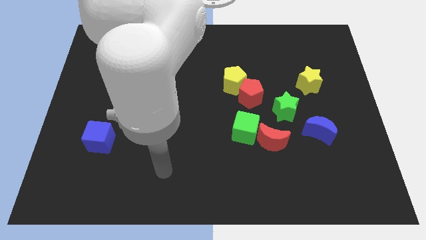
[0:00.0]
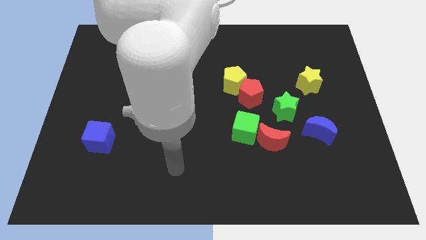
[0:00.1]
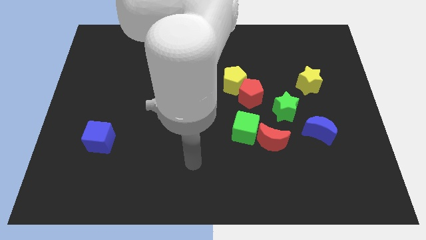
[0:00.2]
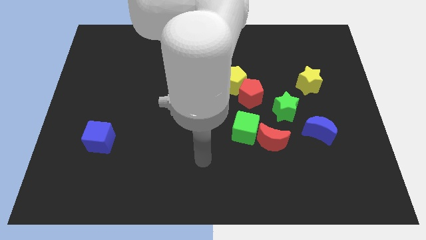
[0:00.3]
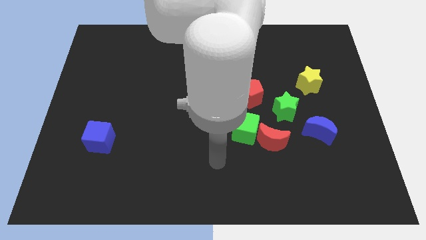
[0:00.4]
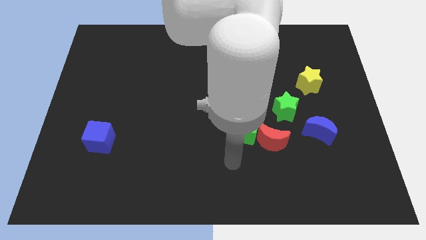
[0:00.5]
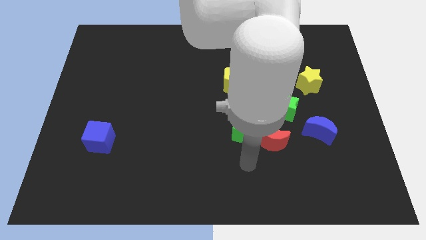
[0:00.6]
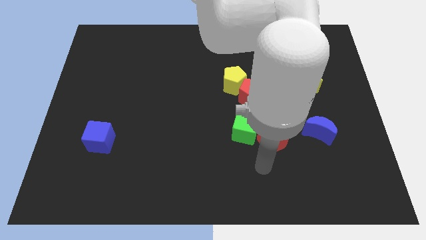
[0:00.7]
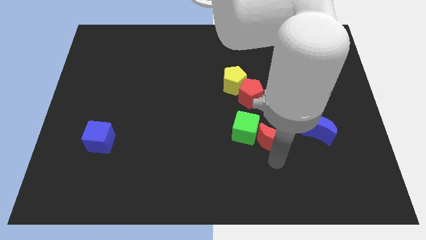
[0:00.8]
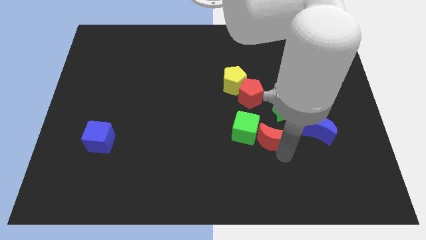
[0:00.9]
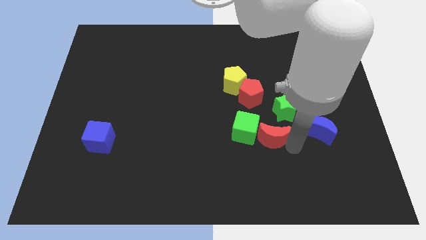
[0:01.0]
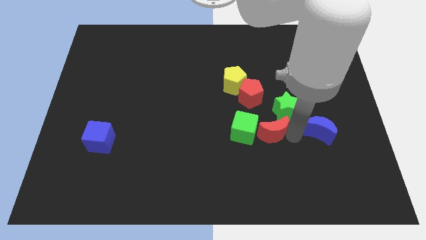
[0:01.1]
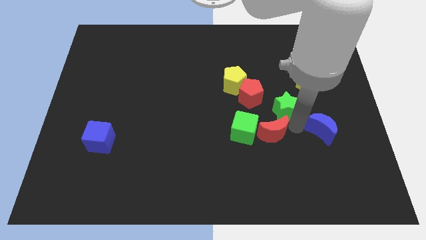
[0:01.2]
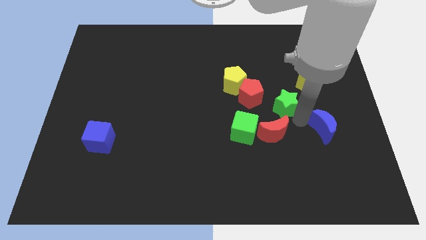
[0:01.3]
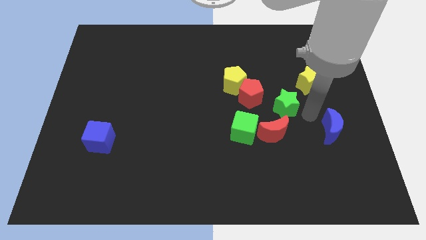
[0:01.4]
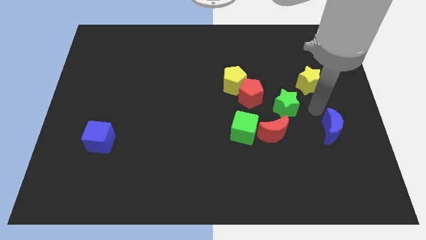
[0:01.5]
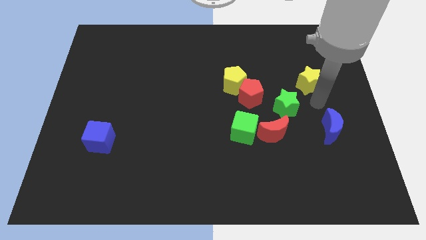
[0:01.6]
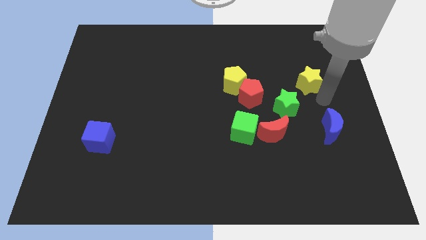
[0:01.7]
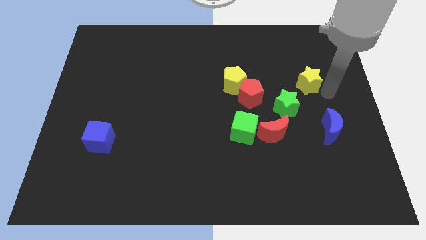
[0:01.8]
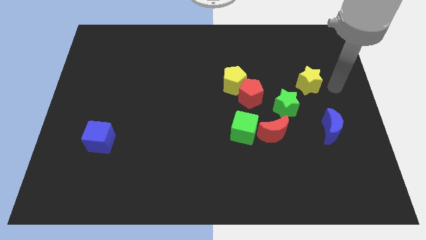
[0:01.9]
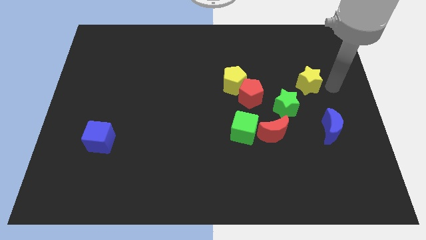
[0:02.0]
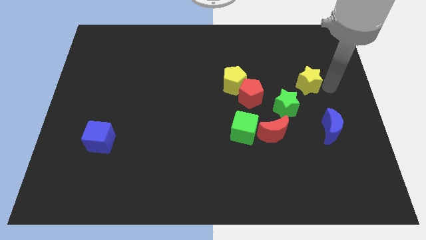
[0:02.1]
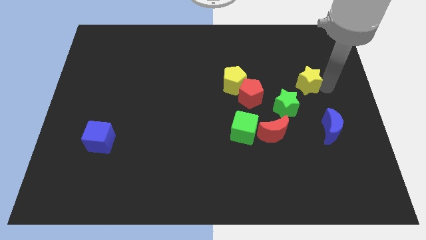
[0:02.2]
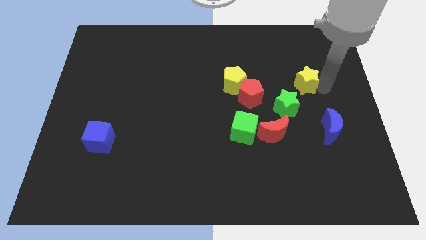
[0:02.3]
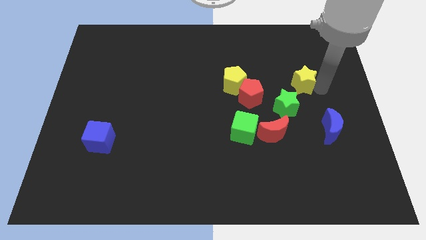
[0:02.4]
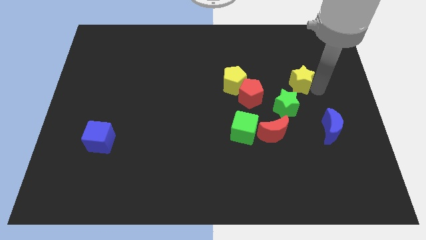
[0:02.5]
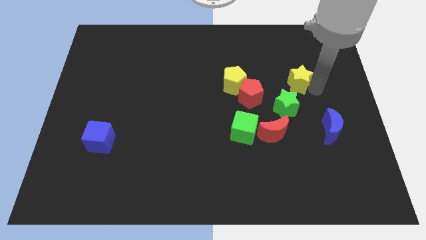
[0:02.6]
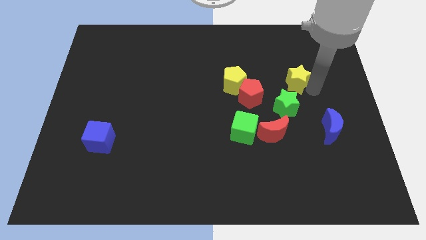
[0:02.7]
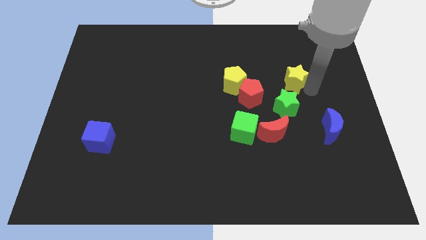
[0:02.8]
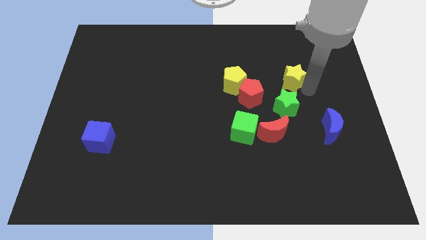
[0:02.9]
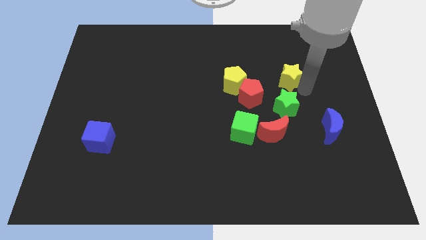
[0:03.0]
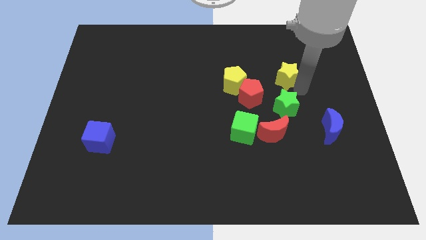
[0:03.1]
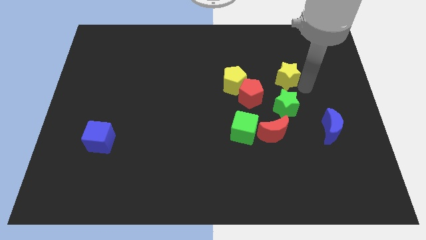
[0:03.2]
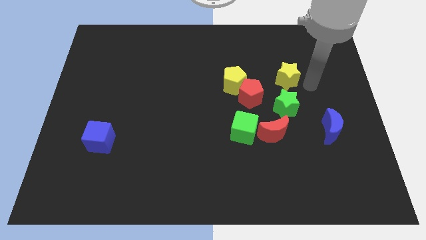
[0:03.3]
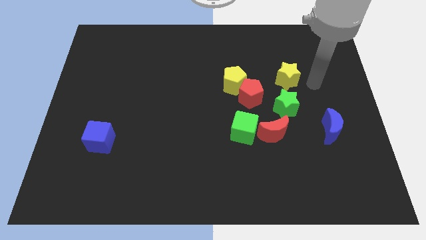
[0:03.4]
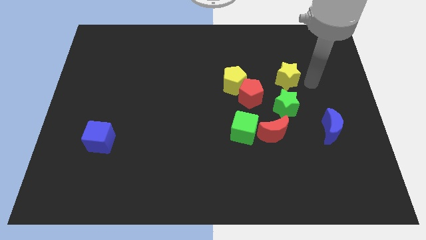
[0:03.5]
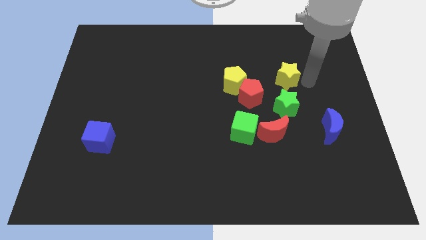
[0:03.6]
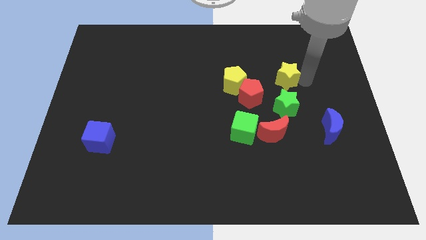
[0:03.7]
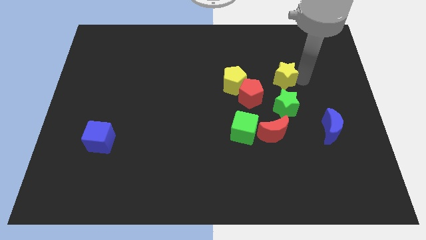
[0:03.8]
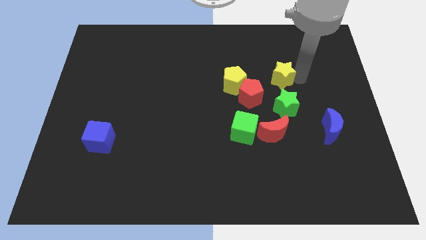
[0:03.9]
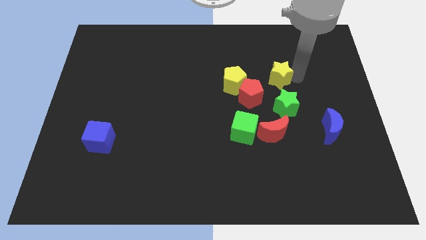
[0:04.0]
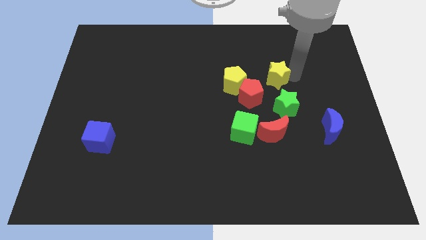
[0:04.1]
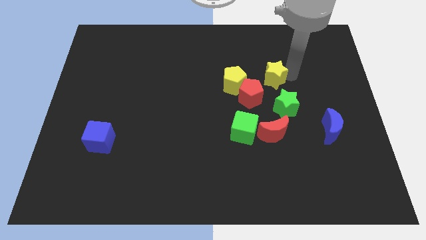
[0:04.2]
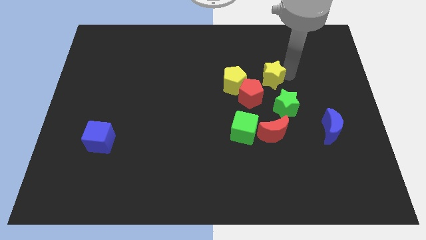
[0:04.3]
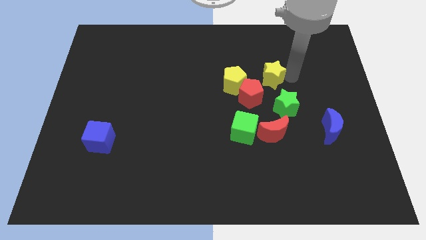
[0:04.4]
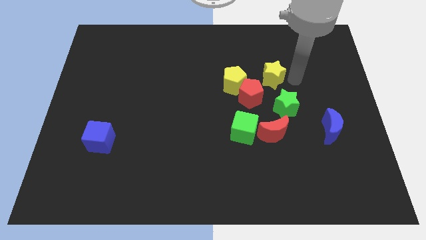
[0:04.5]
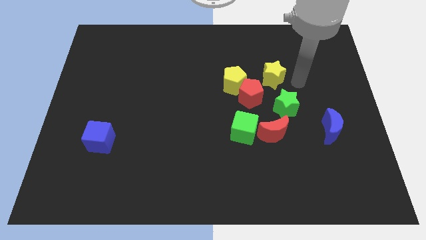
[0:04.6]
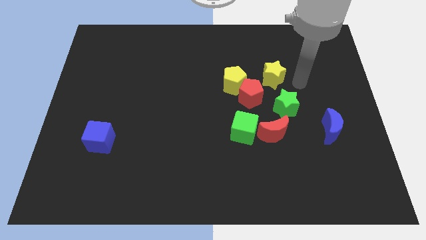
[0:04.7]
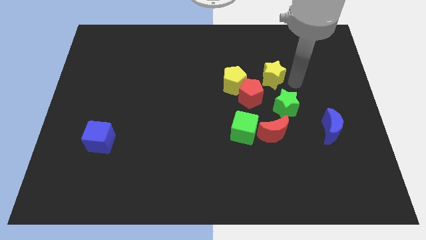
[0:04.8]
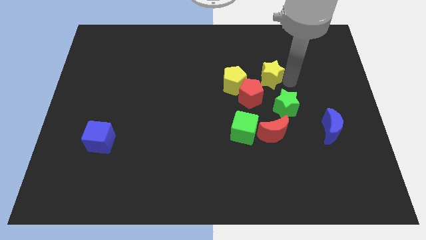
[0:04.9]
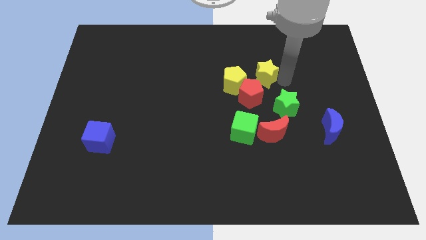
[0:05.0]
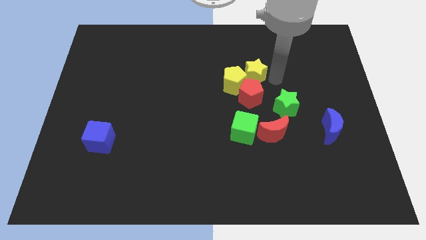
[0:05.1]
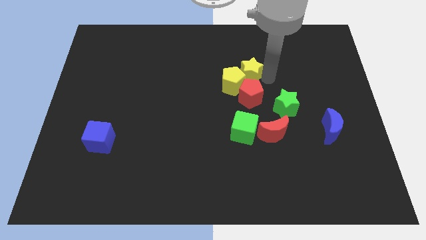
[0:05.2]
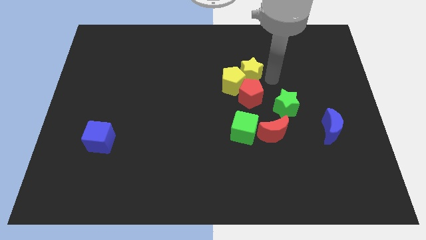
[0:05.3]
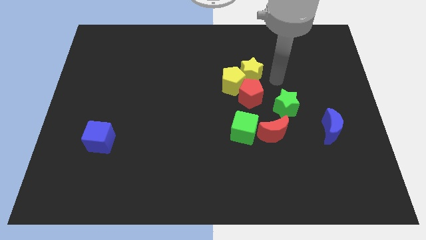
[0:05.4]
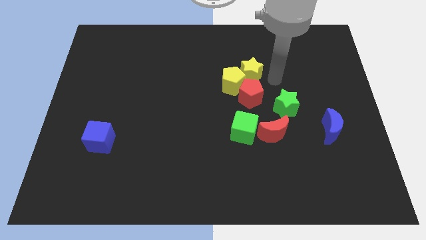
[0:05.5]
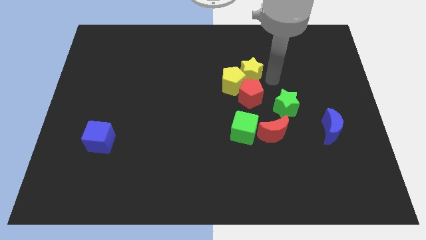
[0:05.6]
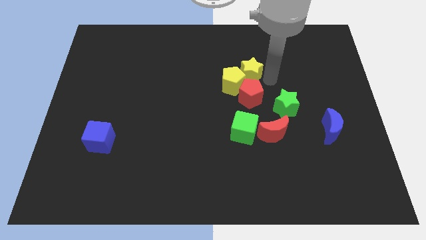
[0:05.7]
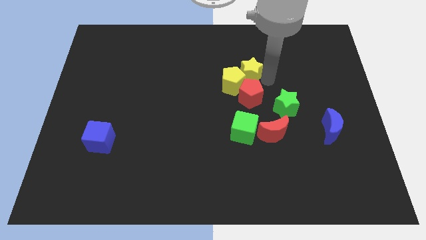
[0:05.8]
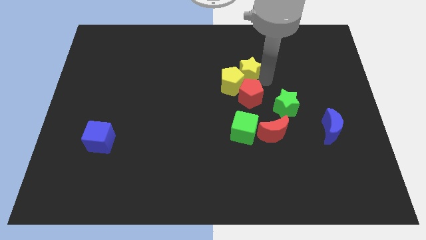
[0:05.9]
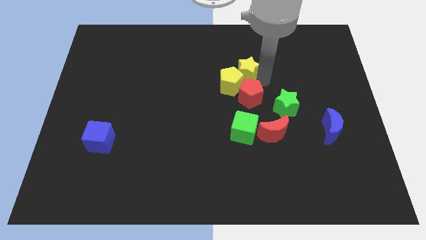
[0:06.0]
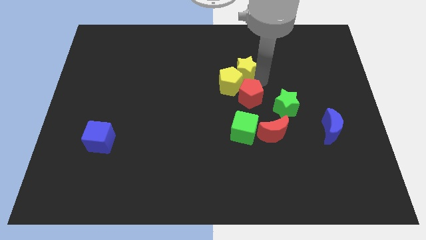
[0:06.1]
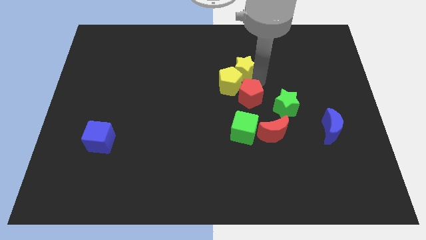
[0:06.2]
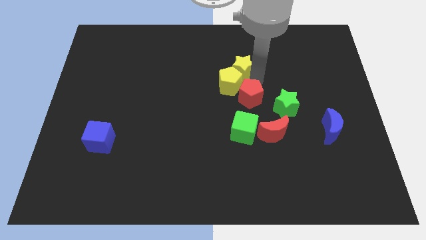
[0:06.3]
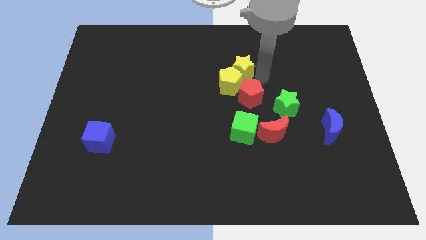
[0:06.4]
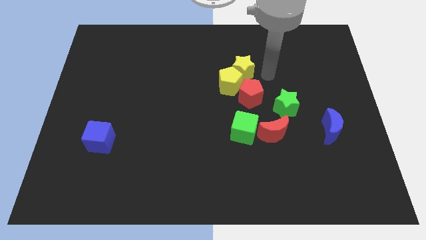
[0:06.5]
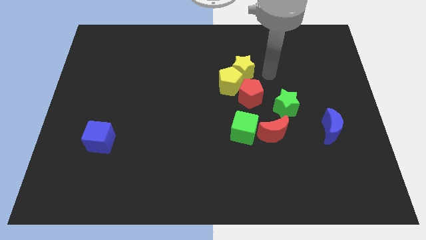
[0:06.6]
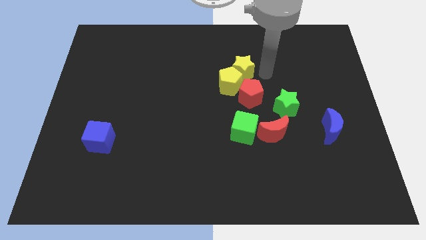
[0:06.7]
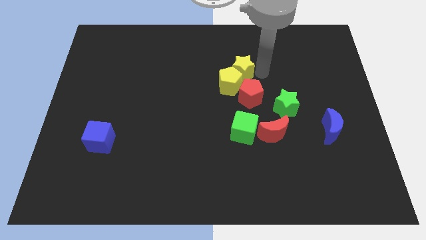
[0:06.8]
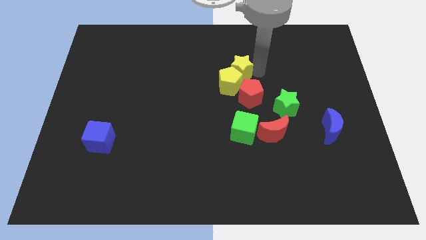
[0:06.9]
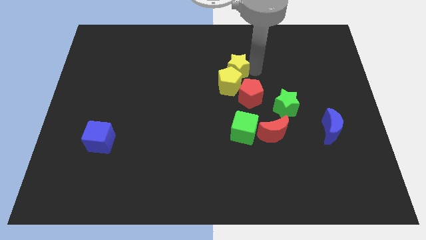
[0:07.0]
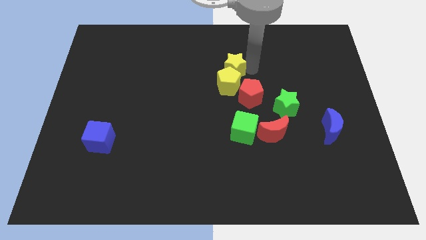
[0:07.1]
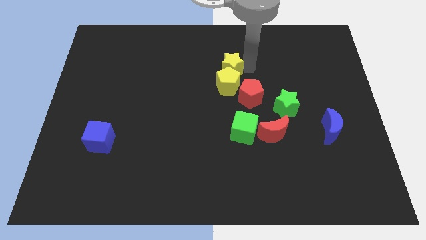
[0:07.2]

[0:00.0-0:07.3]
put the yellow star to the top left side of the yellow pentagon
